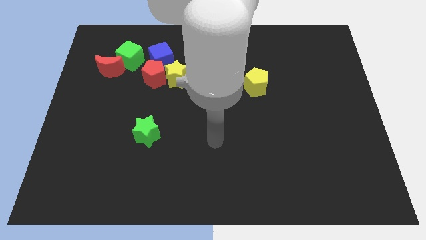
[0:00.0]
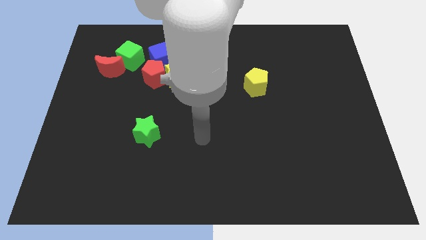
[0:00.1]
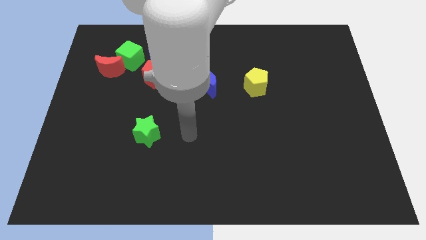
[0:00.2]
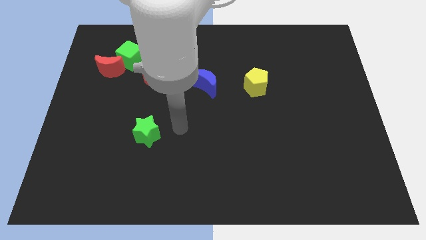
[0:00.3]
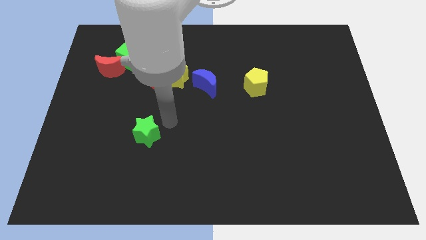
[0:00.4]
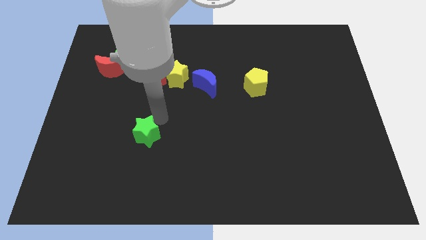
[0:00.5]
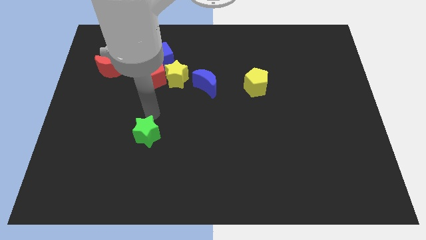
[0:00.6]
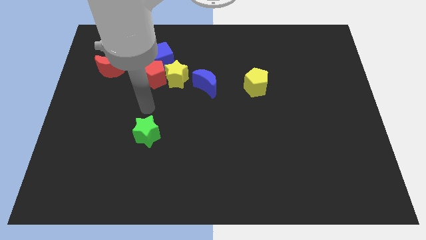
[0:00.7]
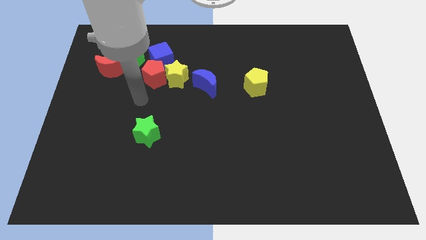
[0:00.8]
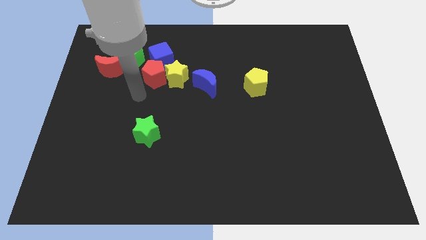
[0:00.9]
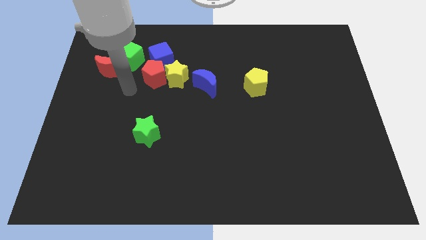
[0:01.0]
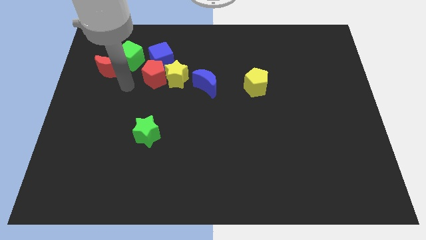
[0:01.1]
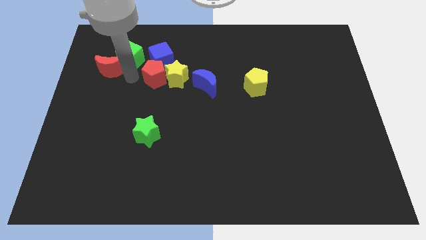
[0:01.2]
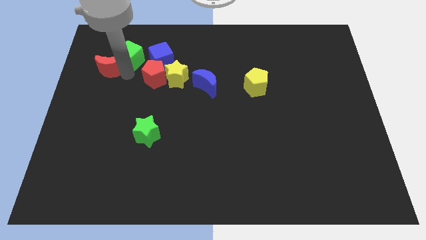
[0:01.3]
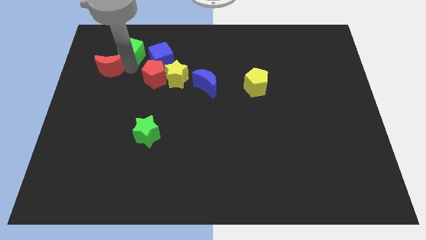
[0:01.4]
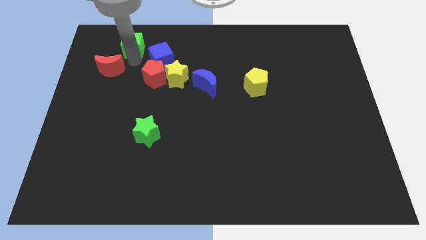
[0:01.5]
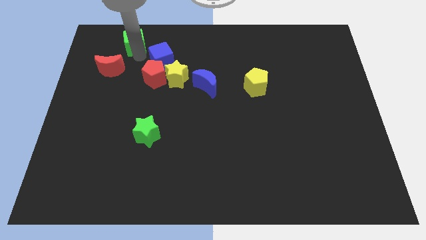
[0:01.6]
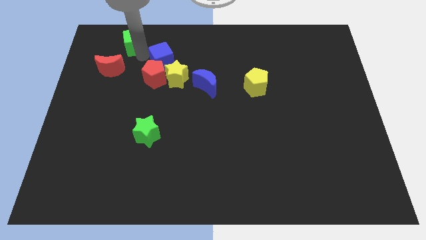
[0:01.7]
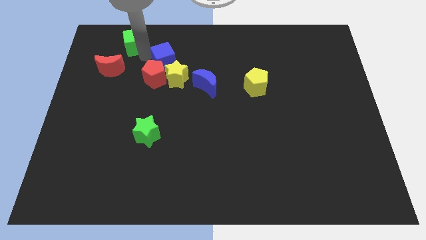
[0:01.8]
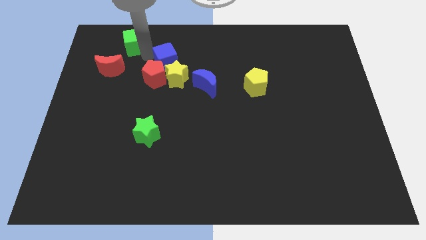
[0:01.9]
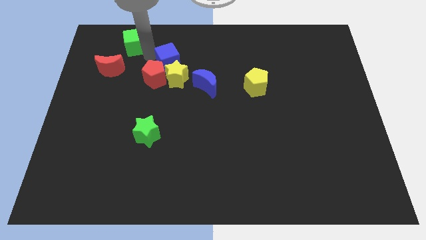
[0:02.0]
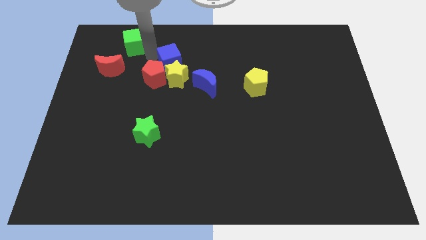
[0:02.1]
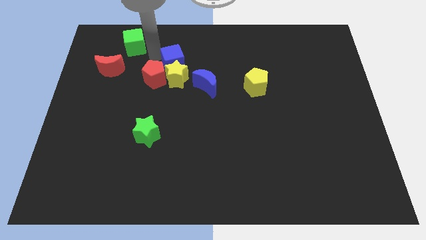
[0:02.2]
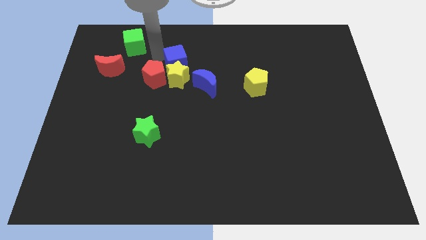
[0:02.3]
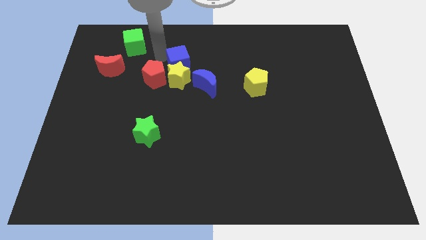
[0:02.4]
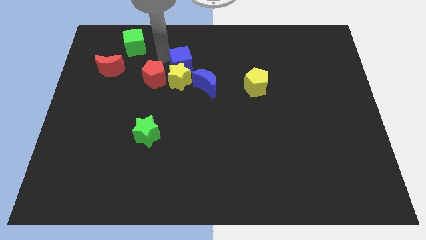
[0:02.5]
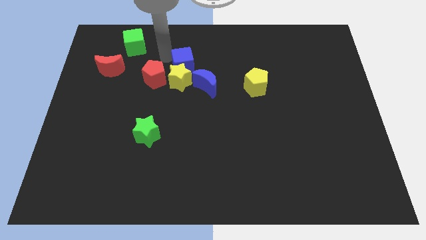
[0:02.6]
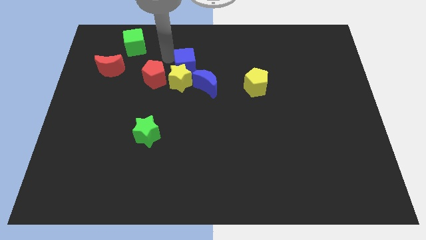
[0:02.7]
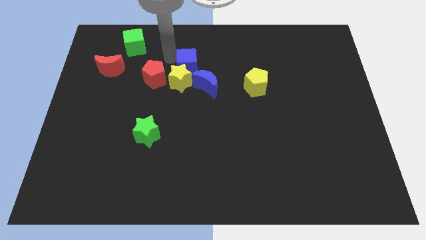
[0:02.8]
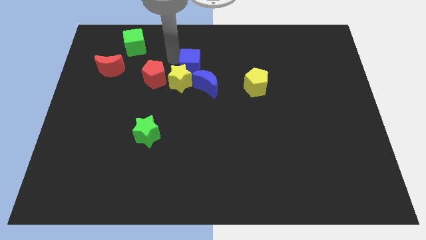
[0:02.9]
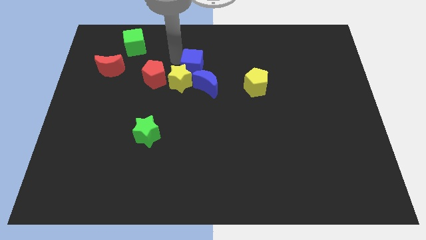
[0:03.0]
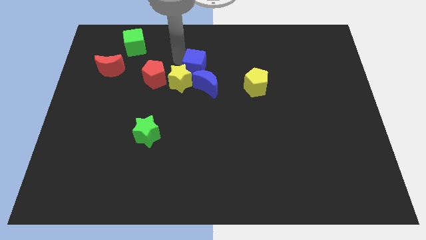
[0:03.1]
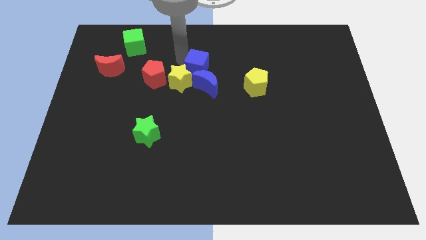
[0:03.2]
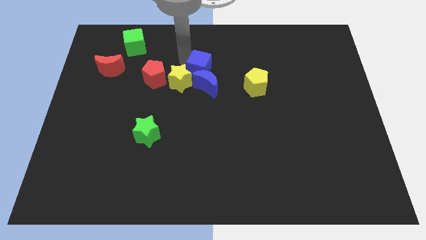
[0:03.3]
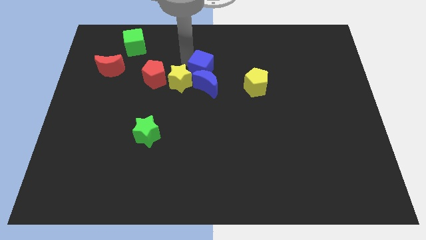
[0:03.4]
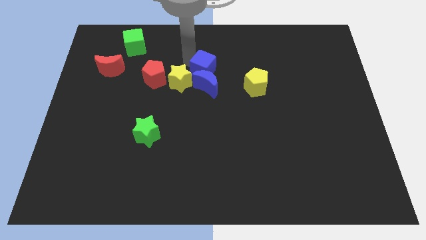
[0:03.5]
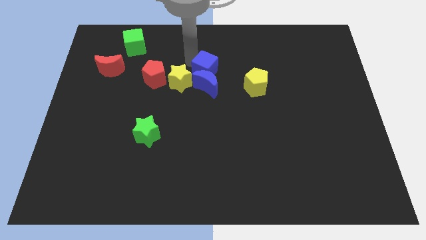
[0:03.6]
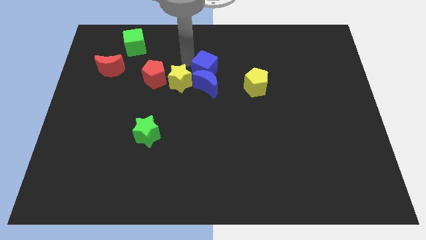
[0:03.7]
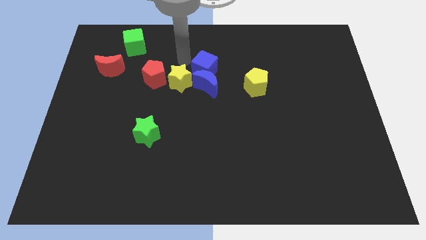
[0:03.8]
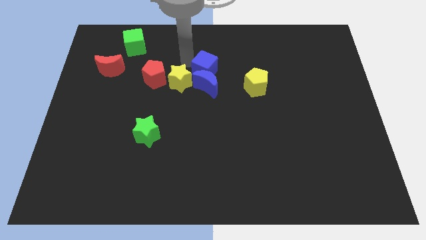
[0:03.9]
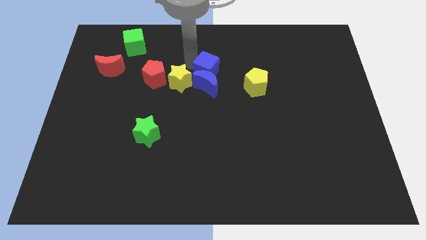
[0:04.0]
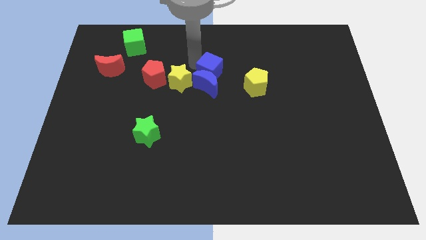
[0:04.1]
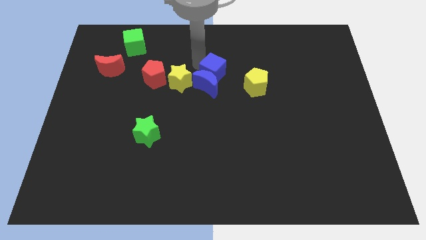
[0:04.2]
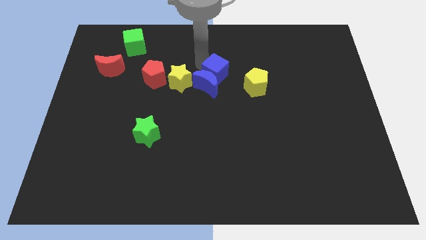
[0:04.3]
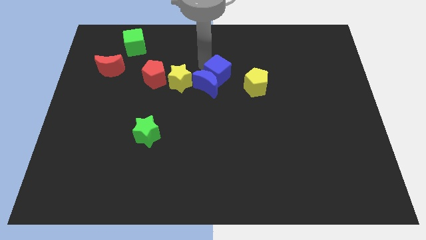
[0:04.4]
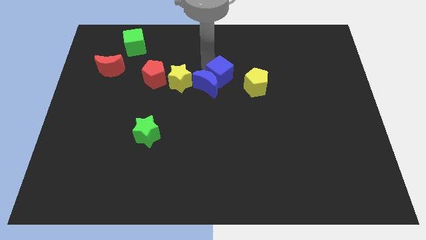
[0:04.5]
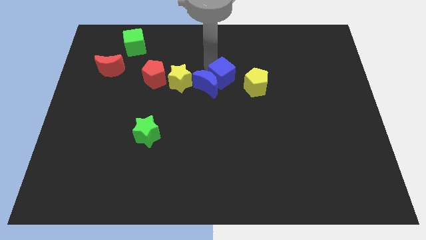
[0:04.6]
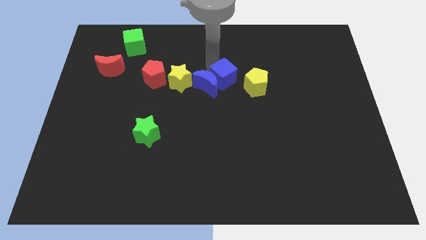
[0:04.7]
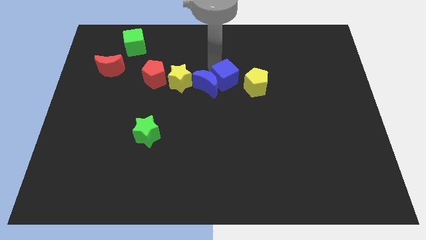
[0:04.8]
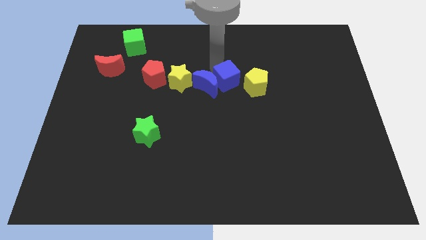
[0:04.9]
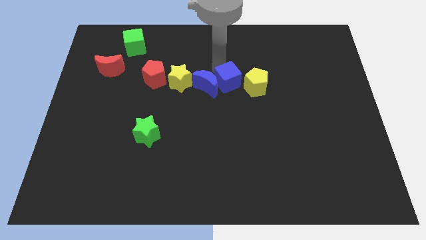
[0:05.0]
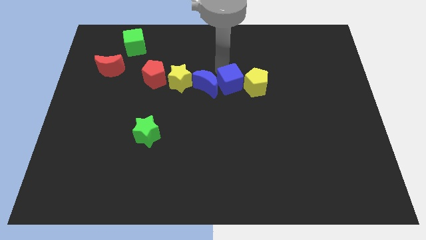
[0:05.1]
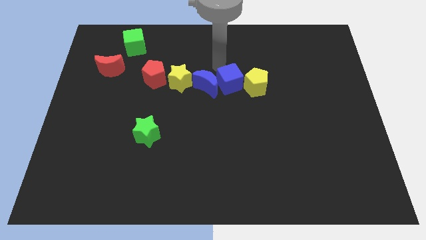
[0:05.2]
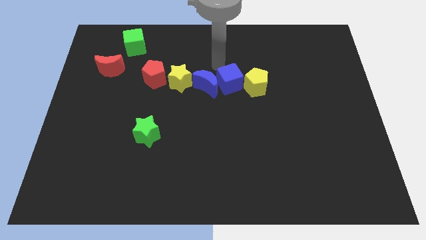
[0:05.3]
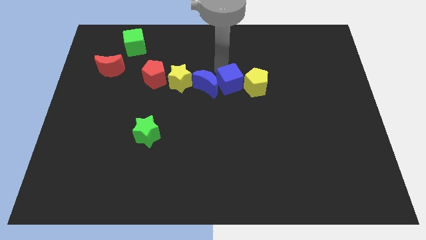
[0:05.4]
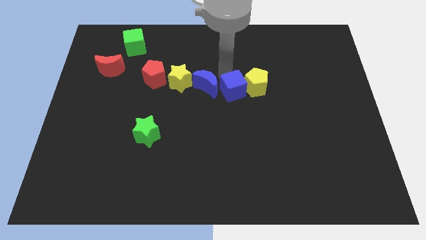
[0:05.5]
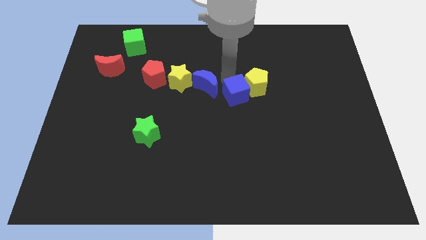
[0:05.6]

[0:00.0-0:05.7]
slide the blue cube diagonally downwards and to the right

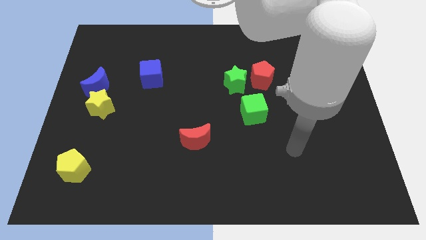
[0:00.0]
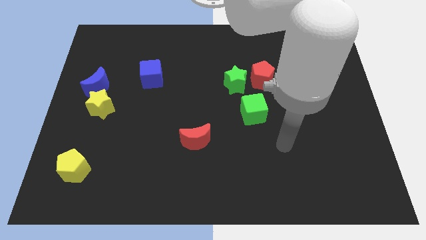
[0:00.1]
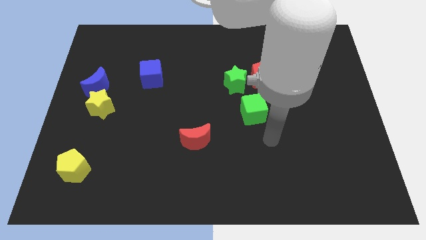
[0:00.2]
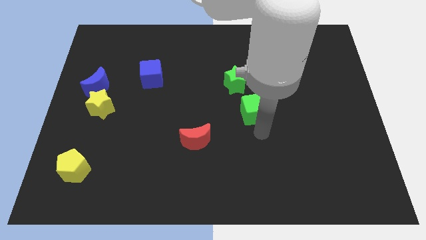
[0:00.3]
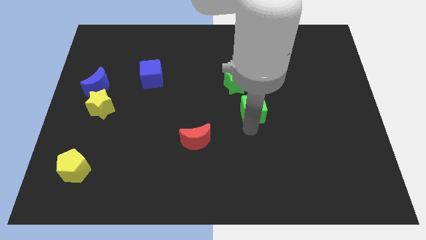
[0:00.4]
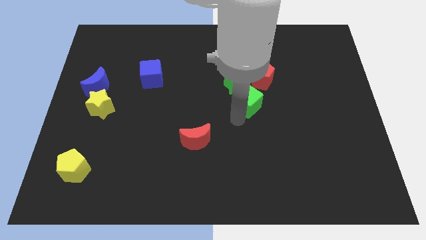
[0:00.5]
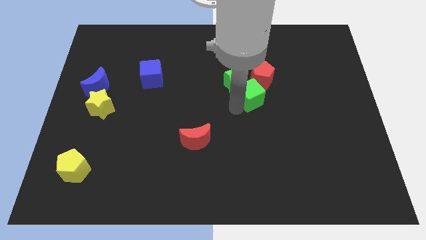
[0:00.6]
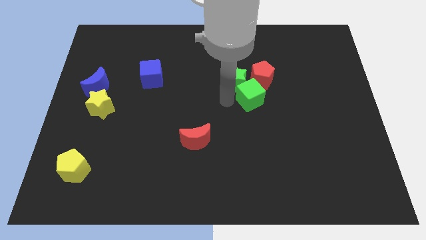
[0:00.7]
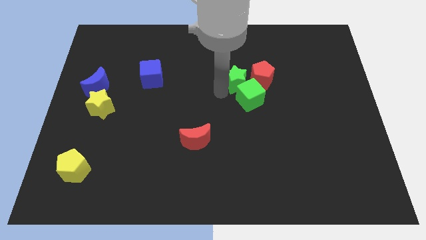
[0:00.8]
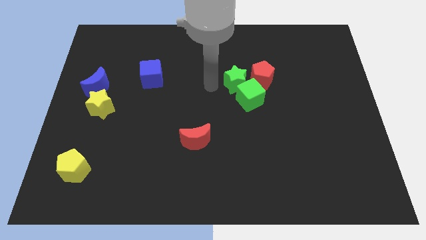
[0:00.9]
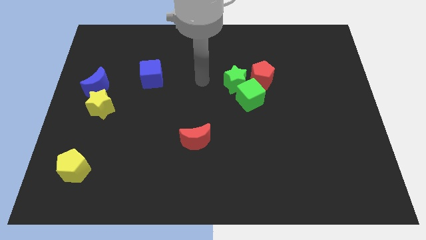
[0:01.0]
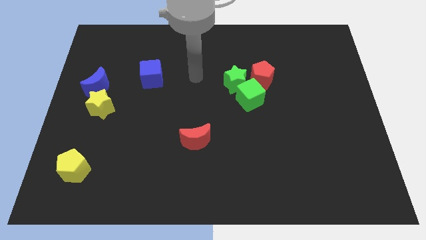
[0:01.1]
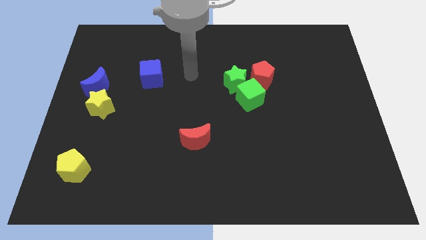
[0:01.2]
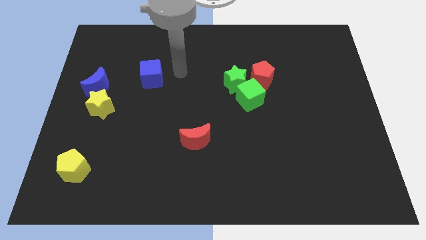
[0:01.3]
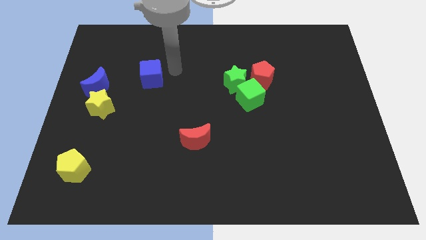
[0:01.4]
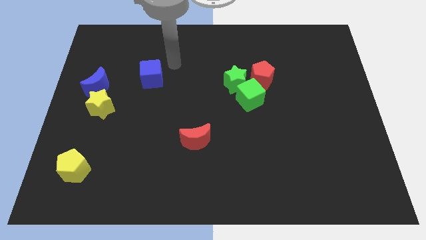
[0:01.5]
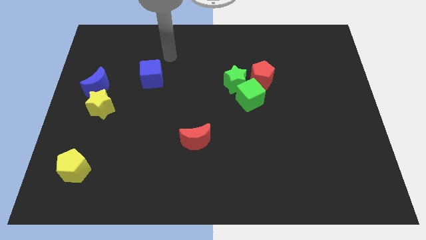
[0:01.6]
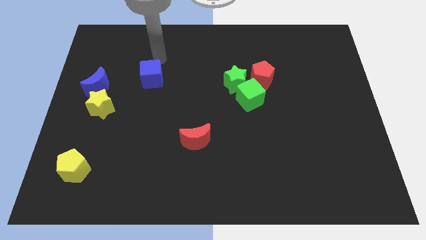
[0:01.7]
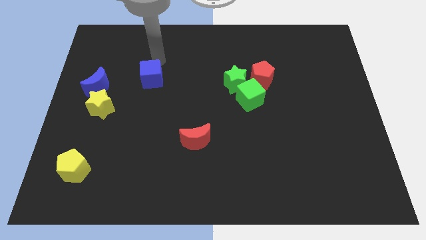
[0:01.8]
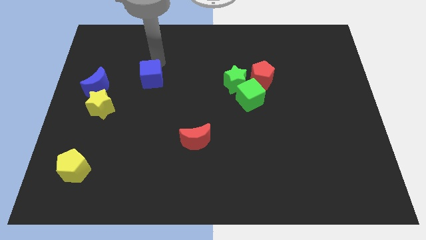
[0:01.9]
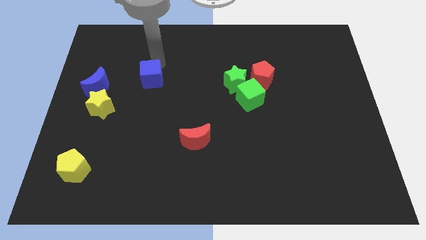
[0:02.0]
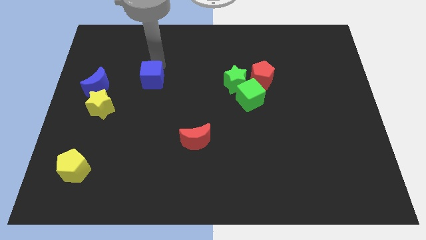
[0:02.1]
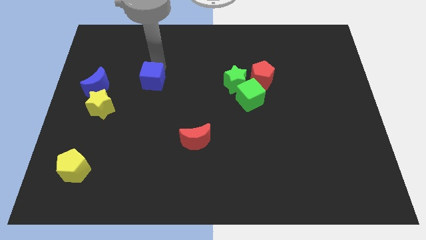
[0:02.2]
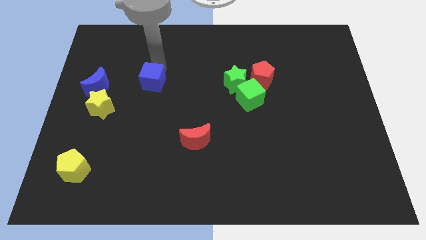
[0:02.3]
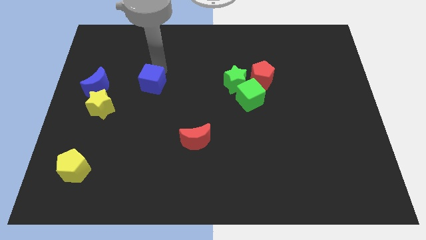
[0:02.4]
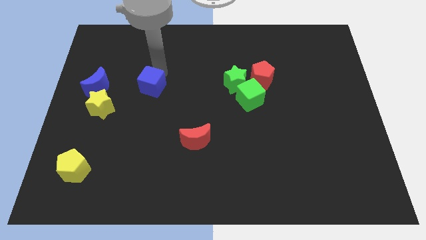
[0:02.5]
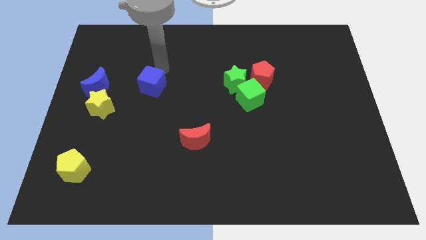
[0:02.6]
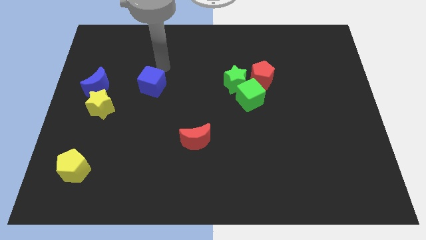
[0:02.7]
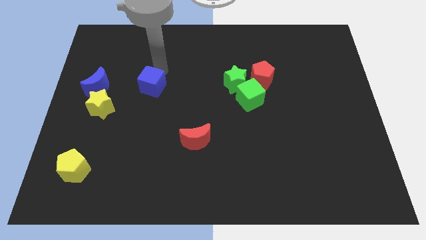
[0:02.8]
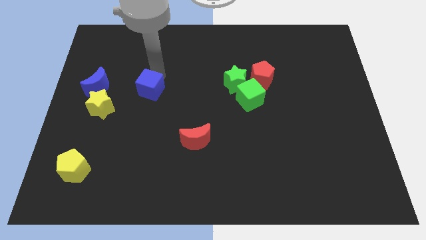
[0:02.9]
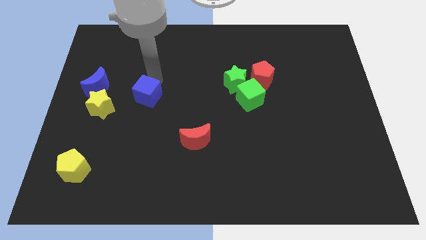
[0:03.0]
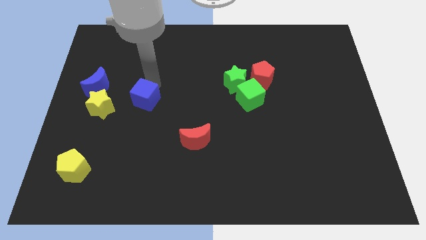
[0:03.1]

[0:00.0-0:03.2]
slide the blue cube slightly down
